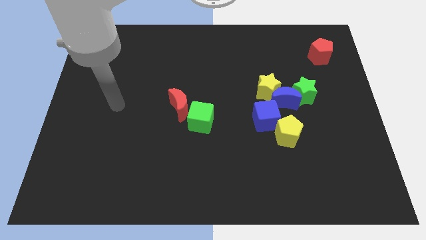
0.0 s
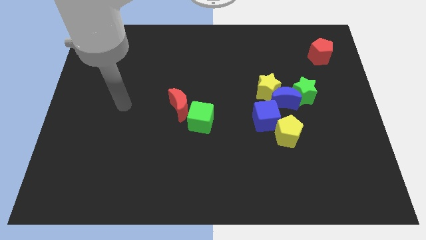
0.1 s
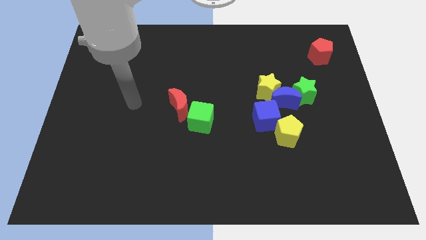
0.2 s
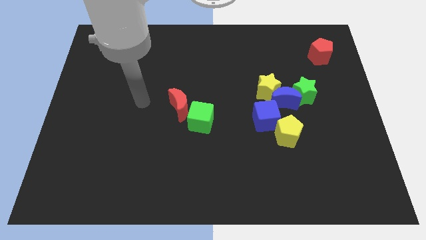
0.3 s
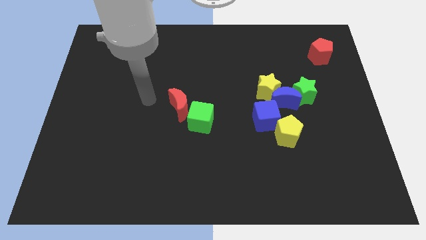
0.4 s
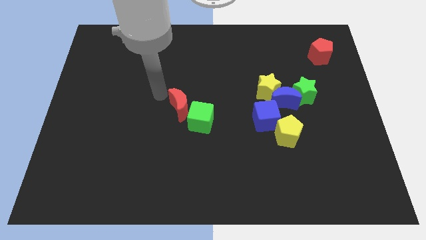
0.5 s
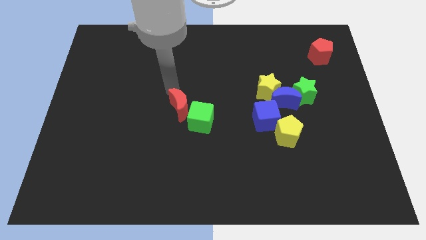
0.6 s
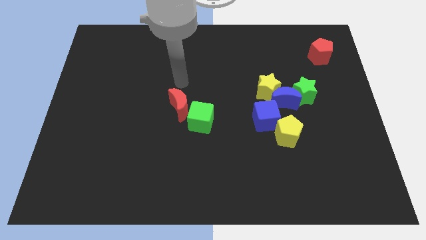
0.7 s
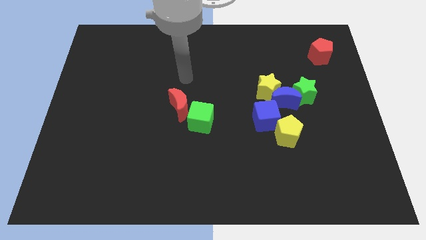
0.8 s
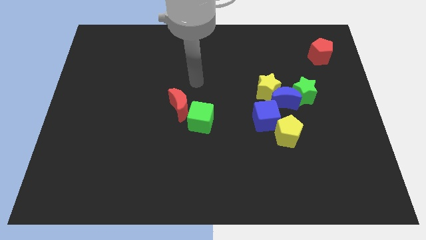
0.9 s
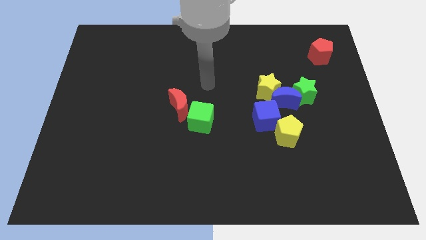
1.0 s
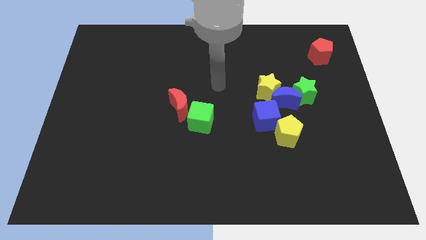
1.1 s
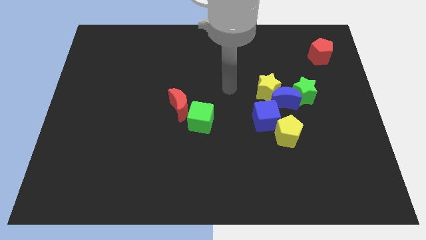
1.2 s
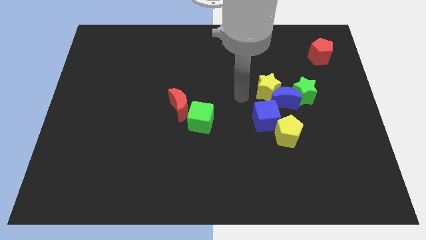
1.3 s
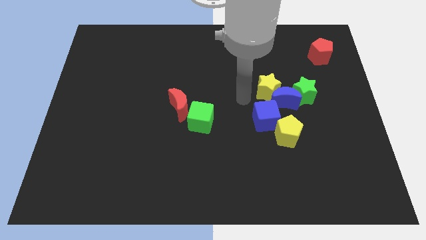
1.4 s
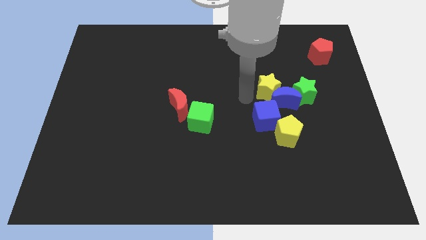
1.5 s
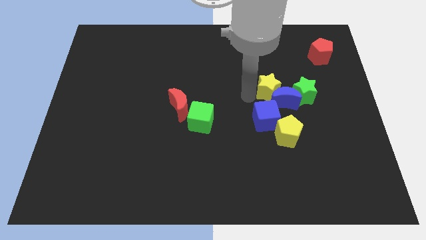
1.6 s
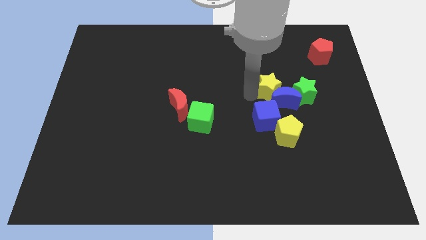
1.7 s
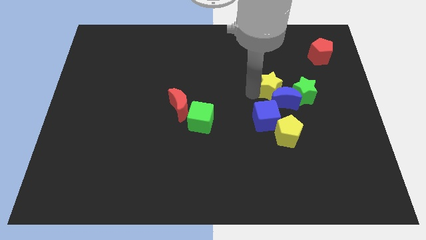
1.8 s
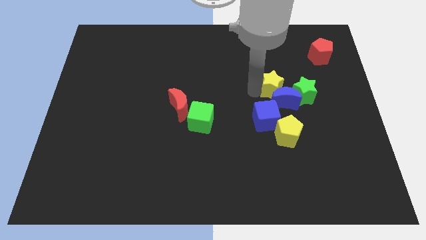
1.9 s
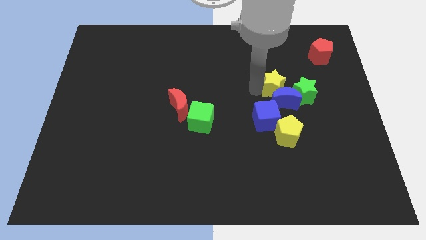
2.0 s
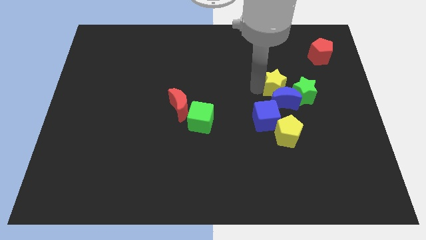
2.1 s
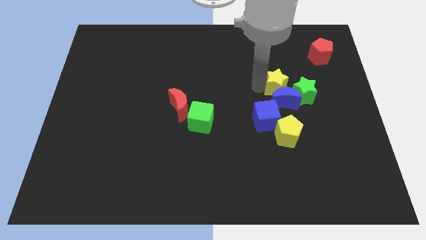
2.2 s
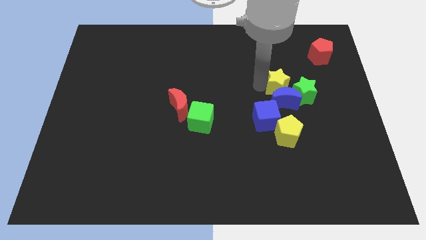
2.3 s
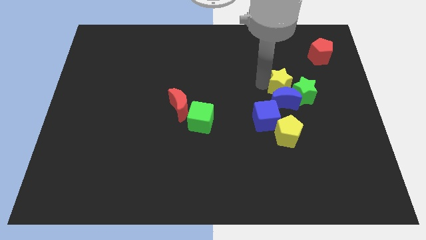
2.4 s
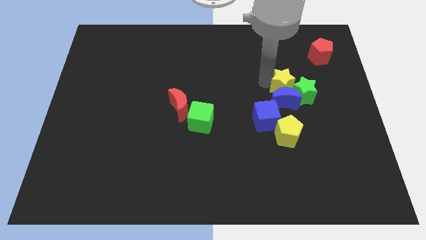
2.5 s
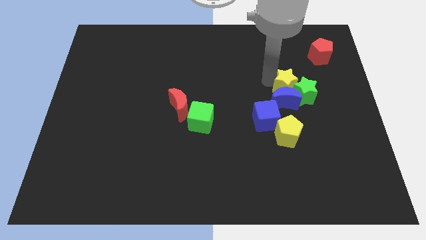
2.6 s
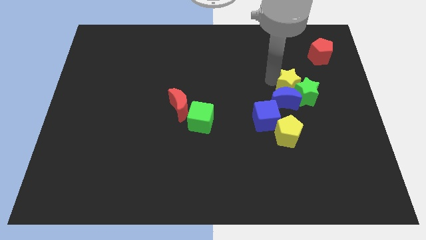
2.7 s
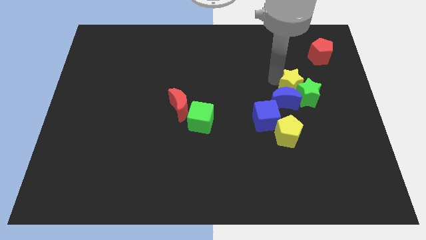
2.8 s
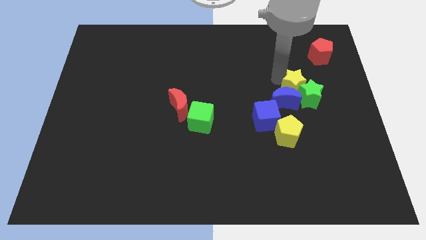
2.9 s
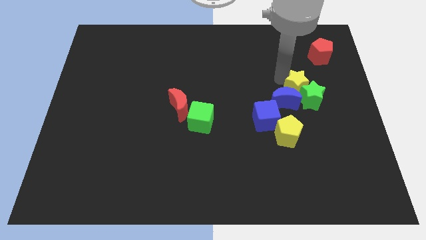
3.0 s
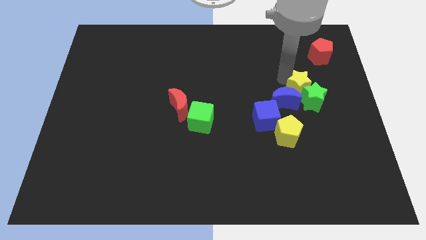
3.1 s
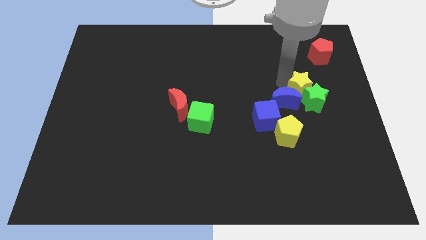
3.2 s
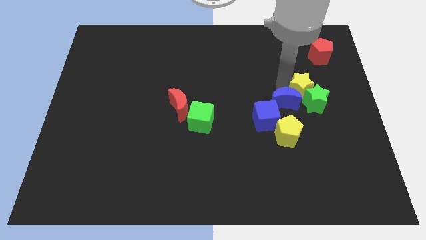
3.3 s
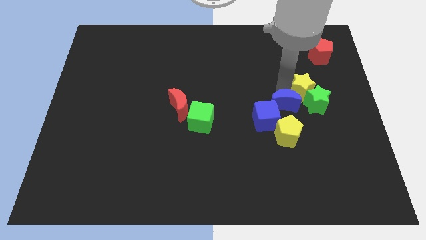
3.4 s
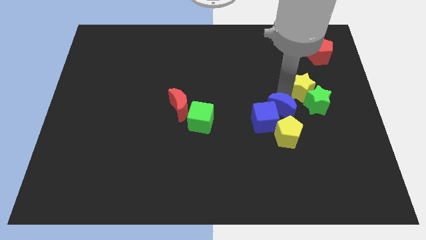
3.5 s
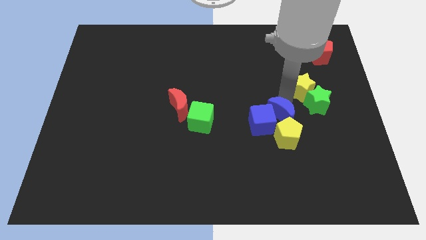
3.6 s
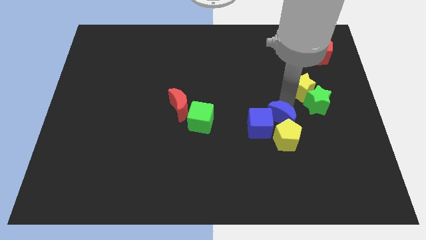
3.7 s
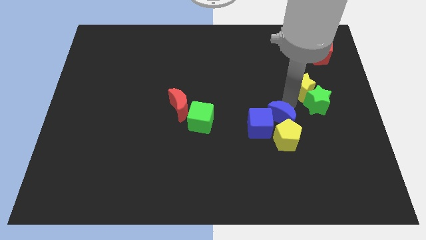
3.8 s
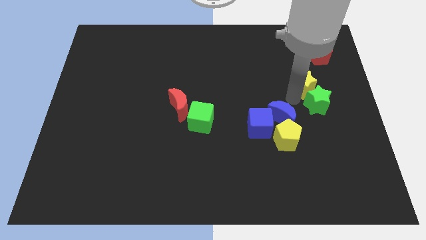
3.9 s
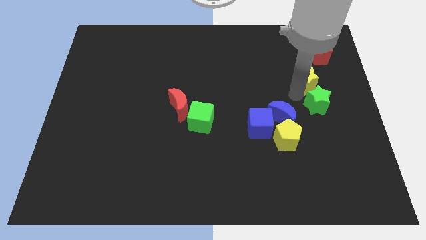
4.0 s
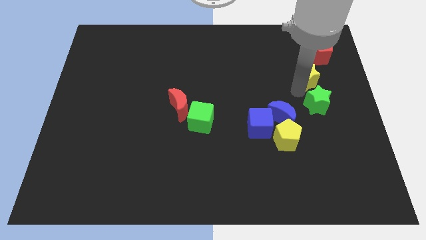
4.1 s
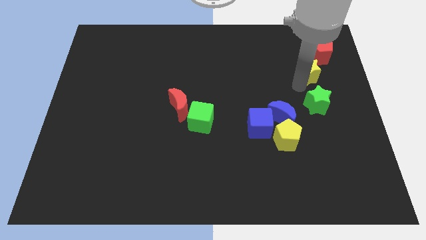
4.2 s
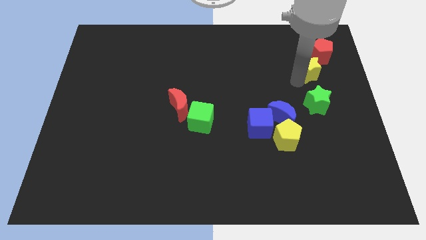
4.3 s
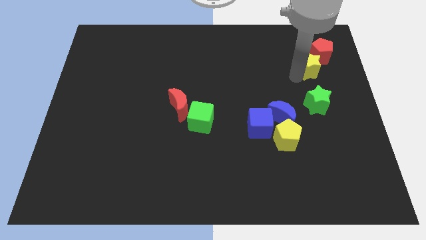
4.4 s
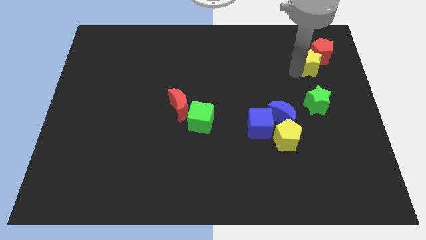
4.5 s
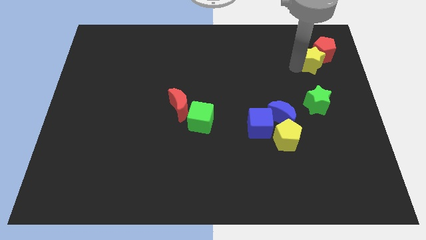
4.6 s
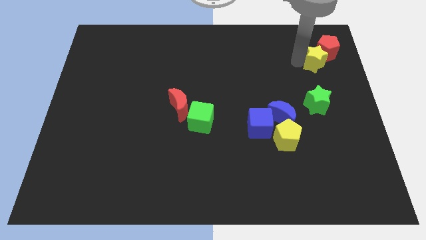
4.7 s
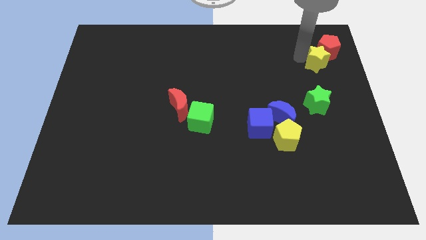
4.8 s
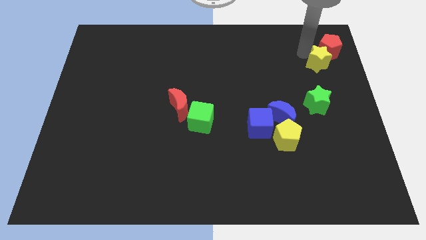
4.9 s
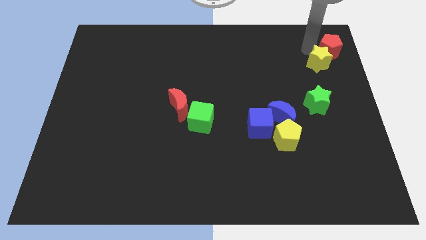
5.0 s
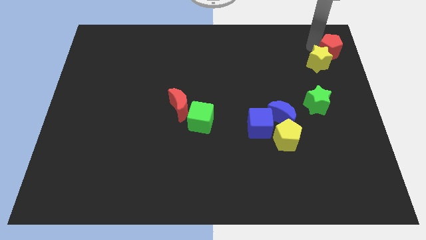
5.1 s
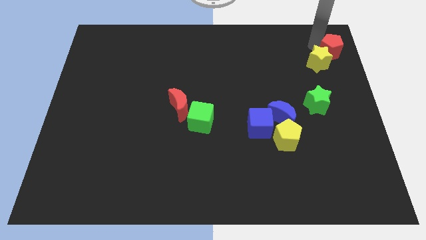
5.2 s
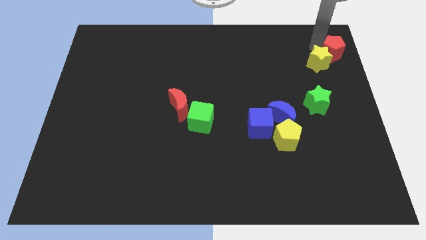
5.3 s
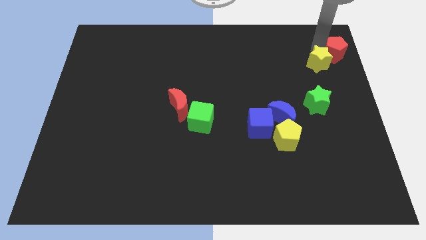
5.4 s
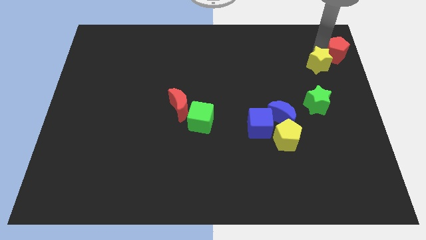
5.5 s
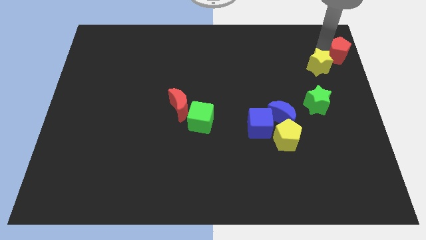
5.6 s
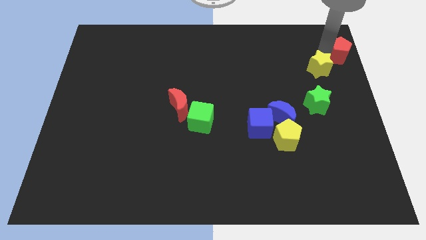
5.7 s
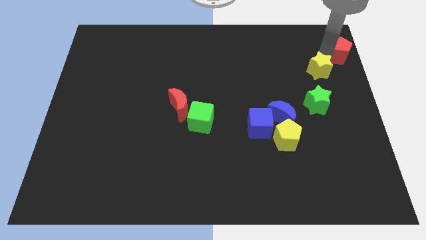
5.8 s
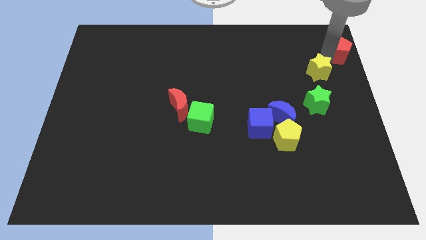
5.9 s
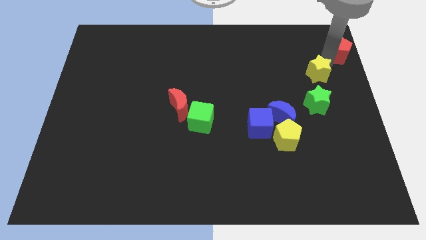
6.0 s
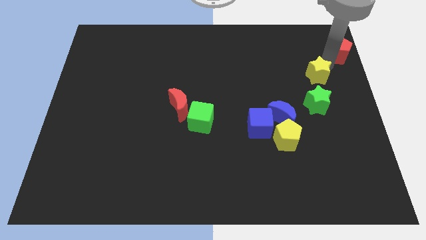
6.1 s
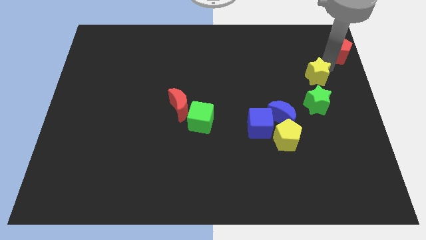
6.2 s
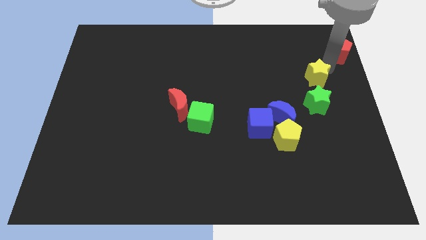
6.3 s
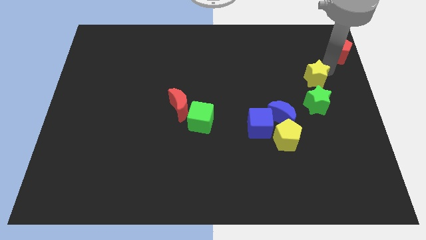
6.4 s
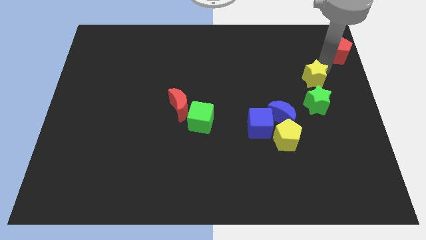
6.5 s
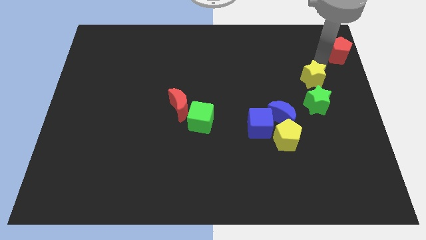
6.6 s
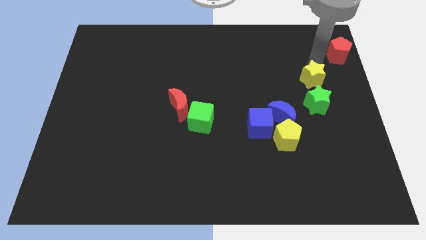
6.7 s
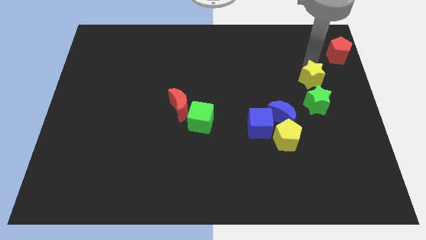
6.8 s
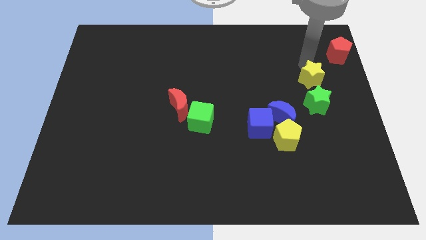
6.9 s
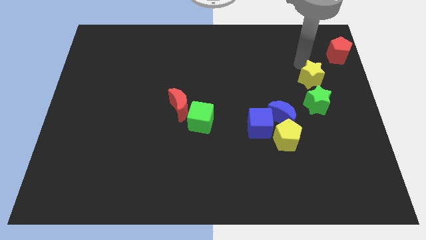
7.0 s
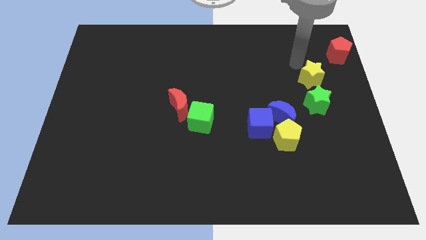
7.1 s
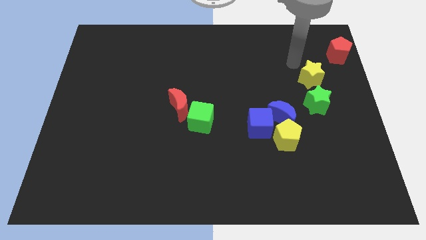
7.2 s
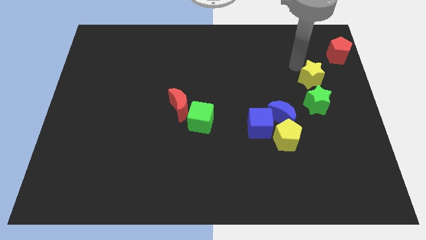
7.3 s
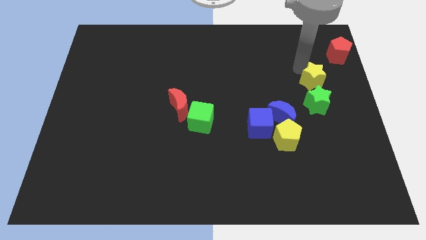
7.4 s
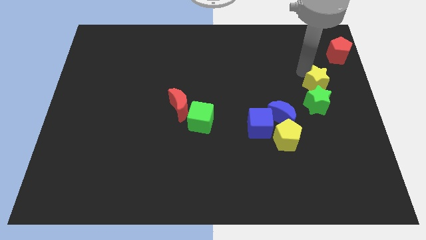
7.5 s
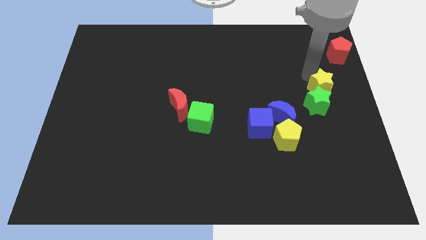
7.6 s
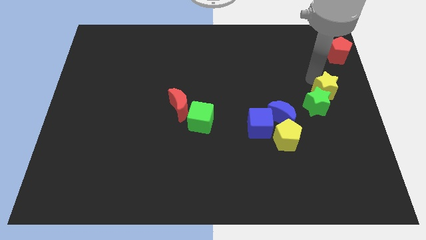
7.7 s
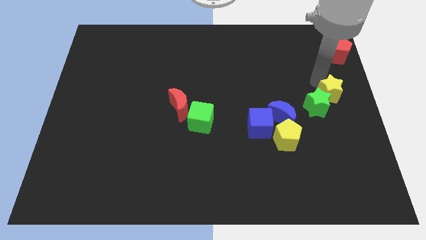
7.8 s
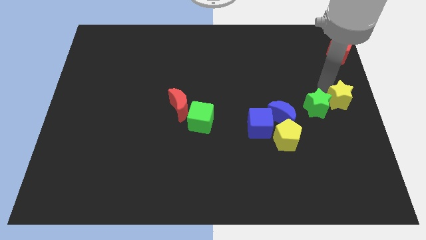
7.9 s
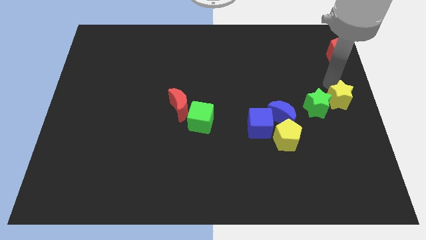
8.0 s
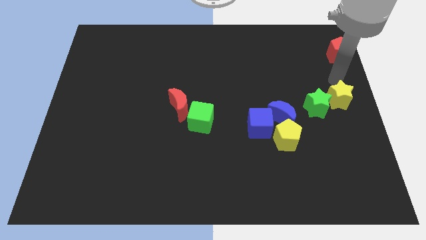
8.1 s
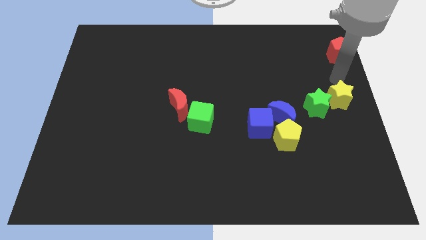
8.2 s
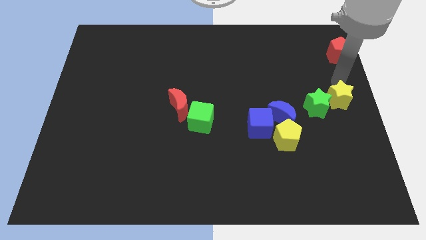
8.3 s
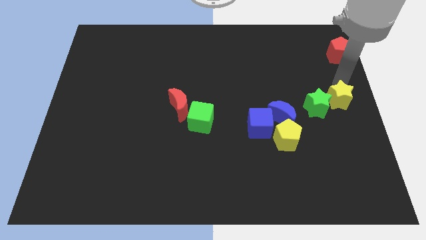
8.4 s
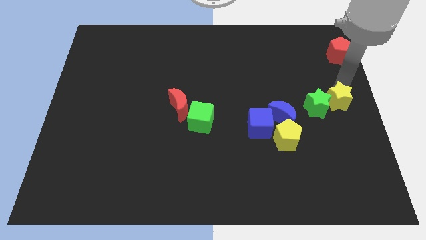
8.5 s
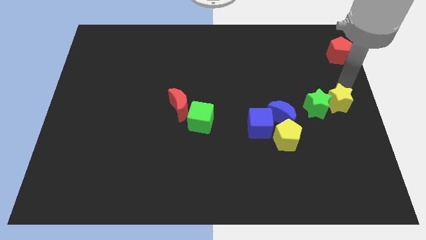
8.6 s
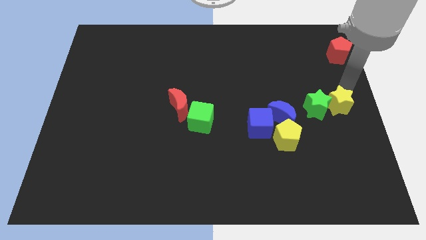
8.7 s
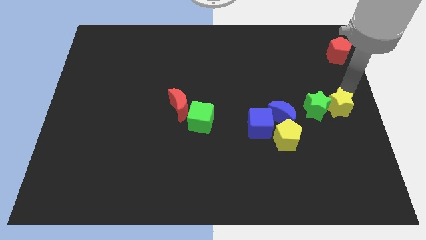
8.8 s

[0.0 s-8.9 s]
push the yellow star to the bottom right of the green star
